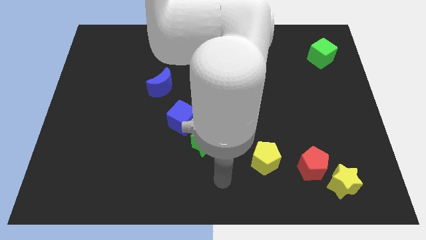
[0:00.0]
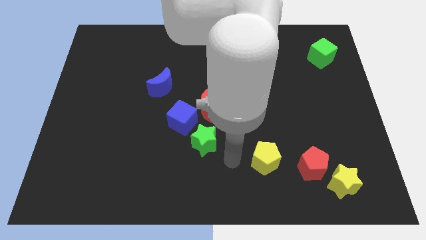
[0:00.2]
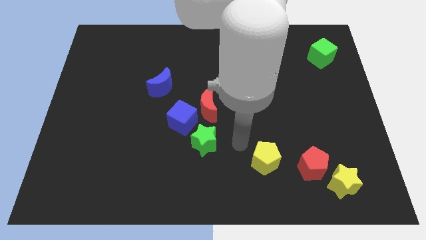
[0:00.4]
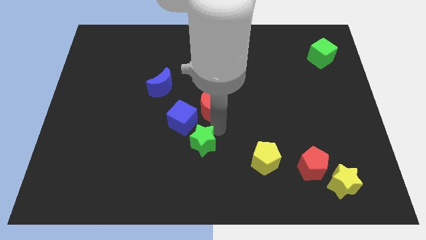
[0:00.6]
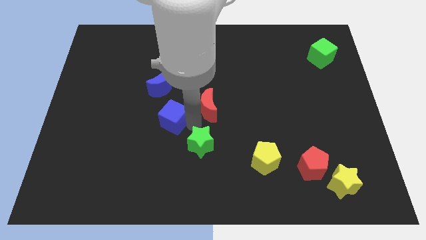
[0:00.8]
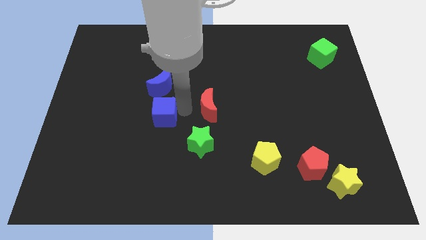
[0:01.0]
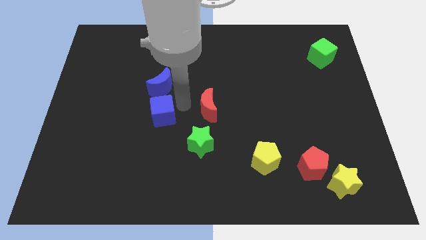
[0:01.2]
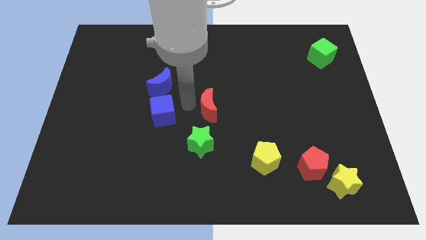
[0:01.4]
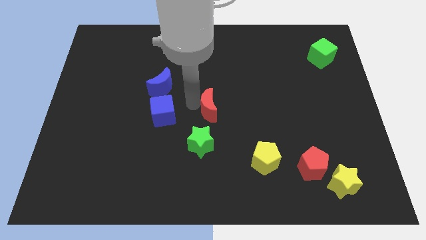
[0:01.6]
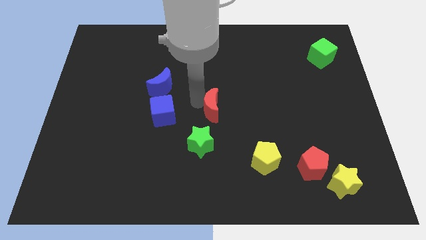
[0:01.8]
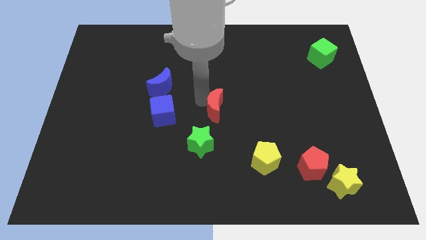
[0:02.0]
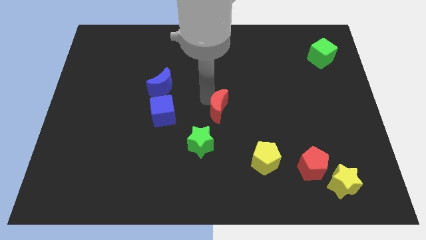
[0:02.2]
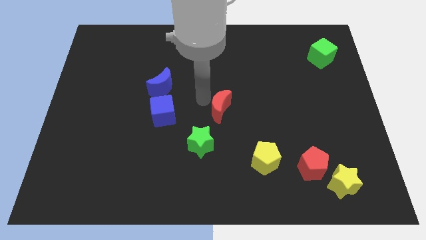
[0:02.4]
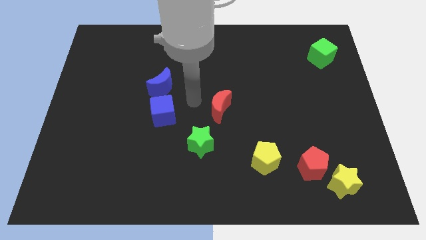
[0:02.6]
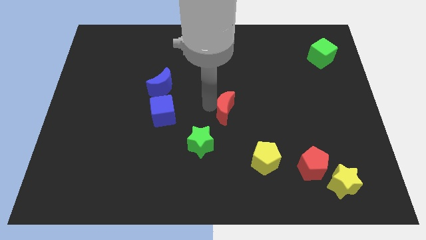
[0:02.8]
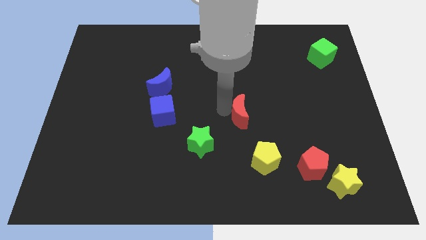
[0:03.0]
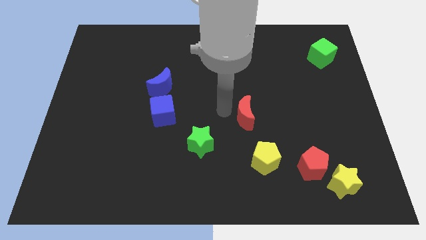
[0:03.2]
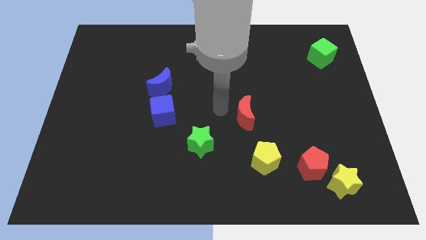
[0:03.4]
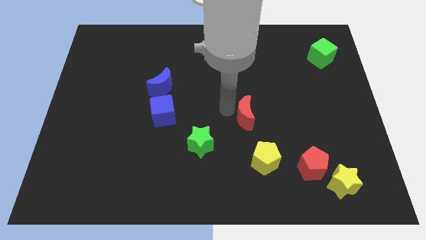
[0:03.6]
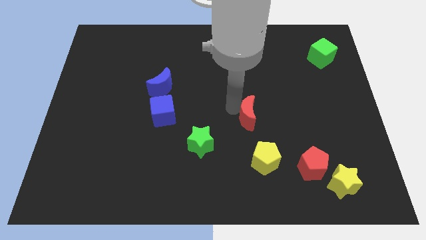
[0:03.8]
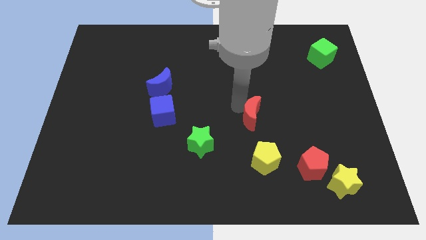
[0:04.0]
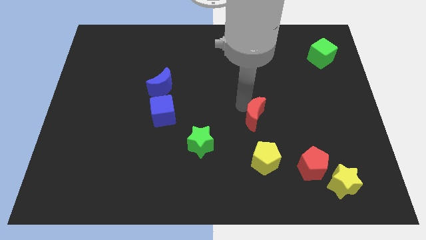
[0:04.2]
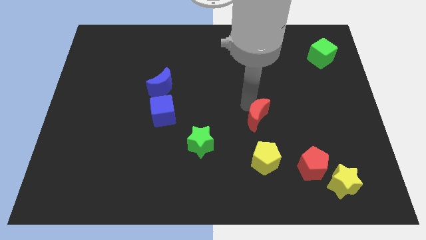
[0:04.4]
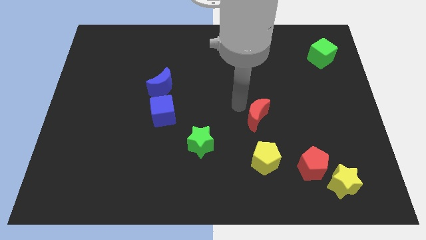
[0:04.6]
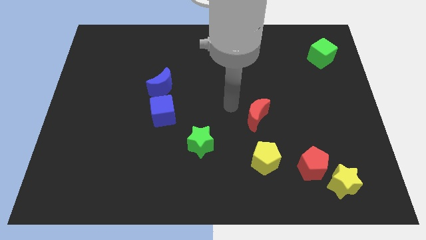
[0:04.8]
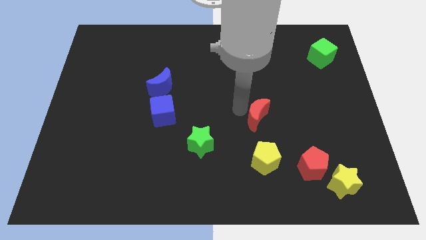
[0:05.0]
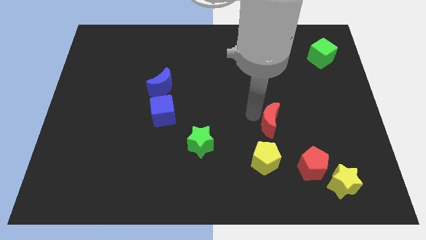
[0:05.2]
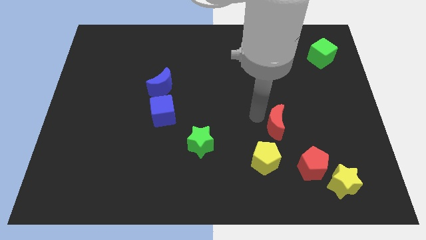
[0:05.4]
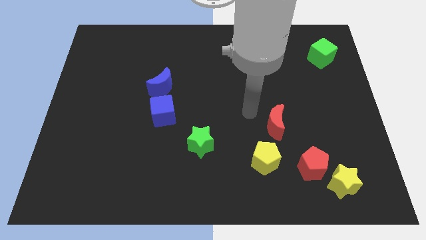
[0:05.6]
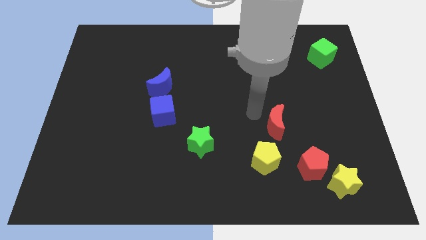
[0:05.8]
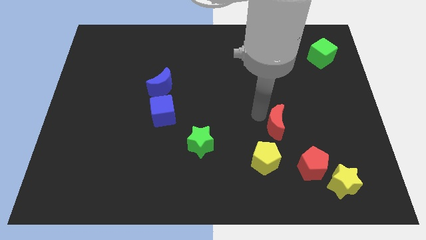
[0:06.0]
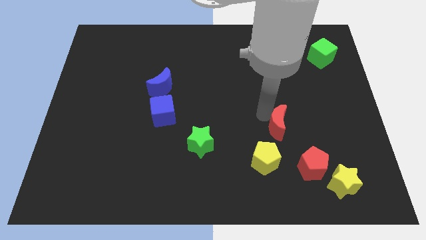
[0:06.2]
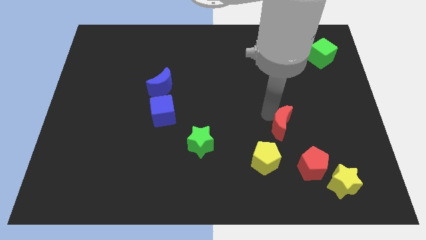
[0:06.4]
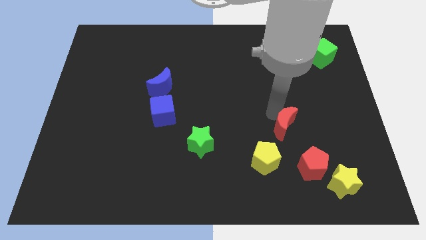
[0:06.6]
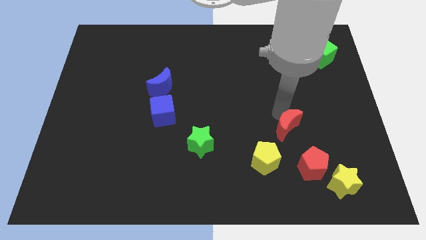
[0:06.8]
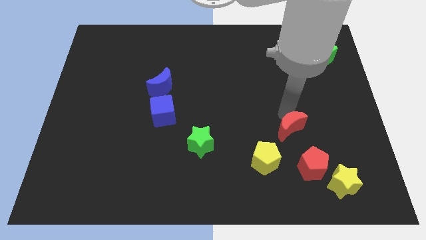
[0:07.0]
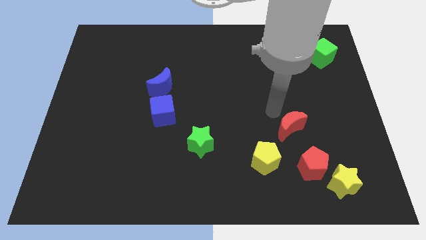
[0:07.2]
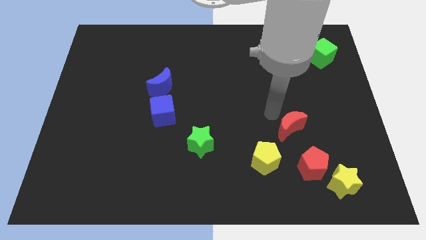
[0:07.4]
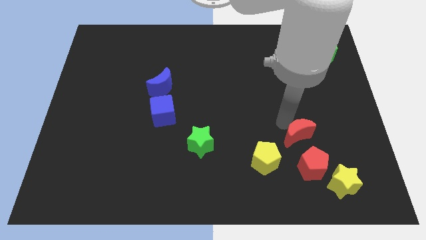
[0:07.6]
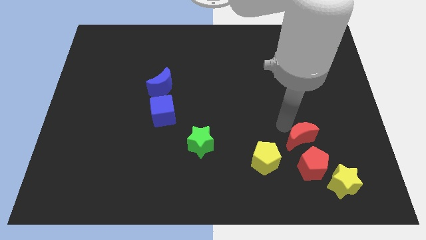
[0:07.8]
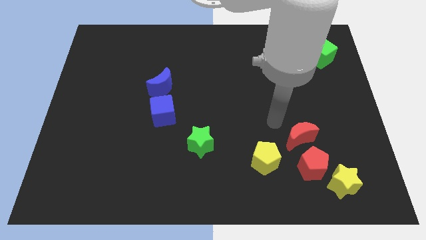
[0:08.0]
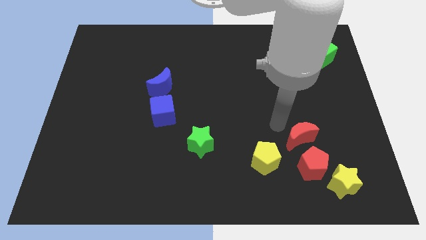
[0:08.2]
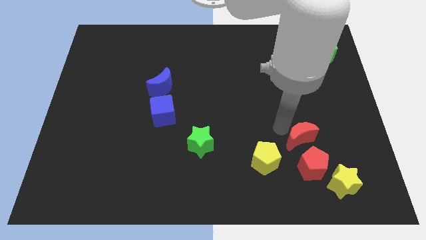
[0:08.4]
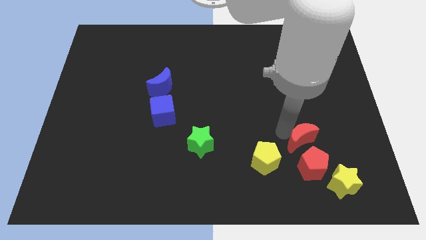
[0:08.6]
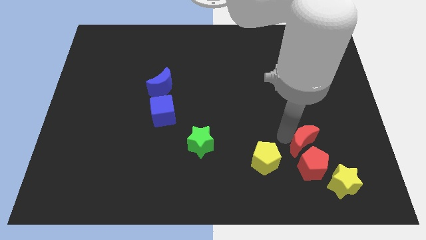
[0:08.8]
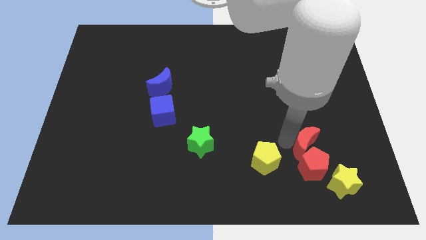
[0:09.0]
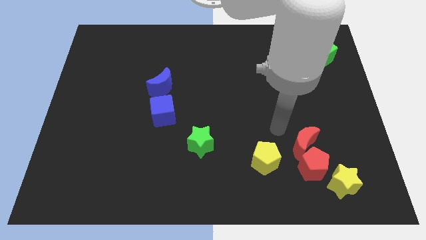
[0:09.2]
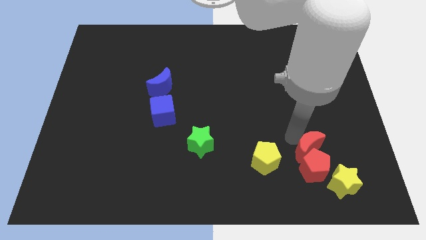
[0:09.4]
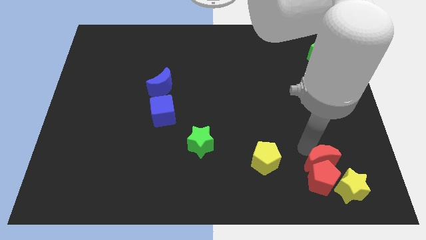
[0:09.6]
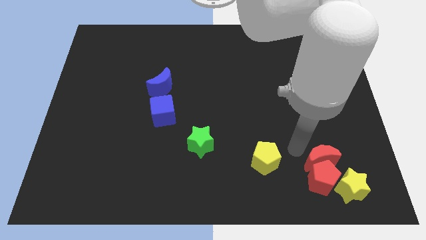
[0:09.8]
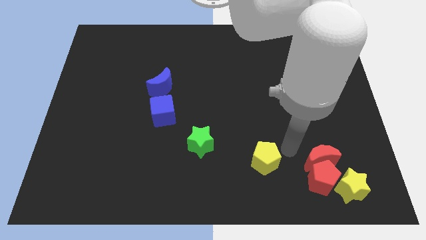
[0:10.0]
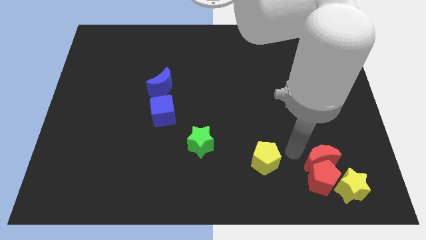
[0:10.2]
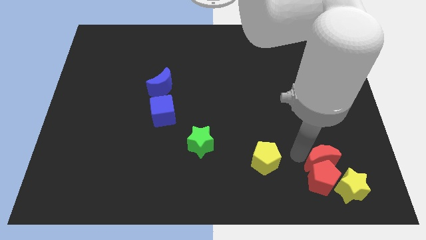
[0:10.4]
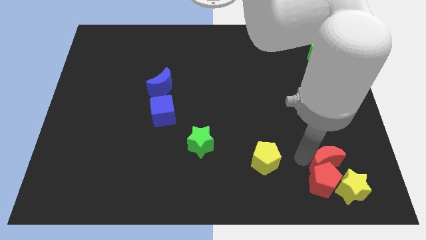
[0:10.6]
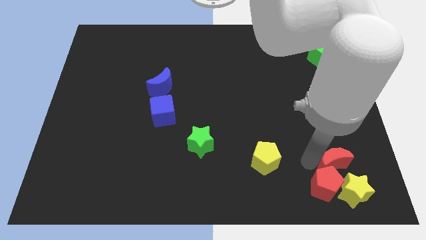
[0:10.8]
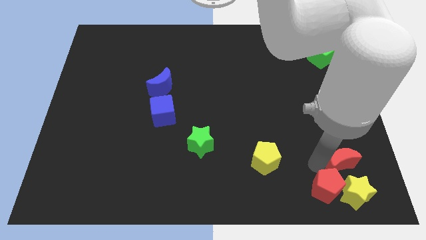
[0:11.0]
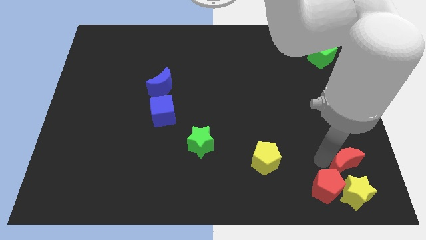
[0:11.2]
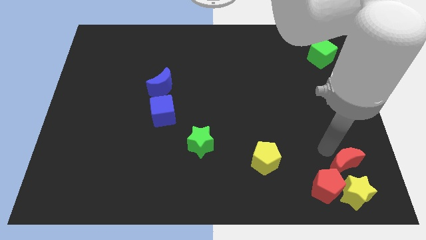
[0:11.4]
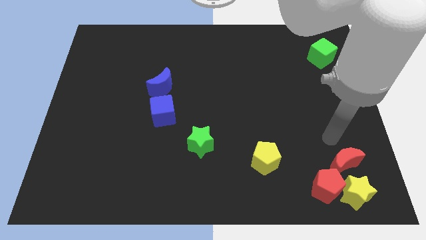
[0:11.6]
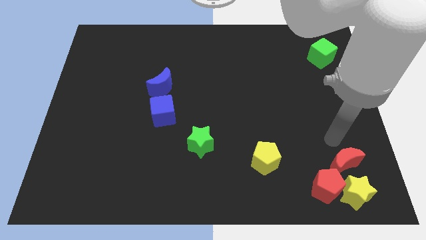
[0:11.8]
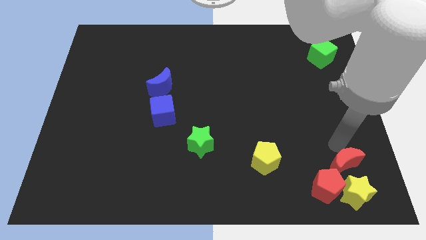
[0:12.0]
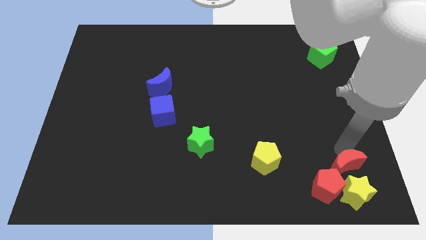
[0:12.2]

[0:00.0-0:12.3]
put the red moon towards the yellow star

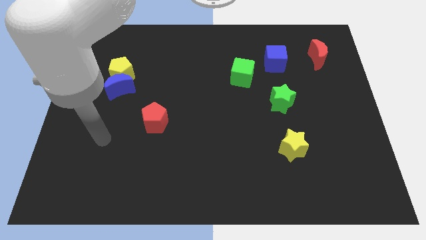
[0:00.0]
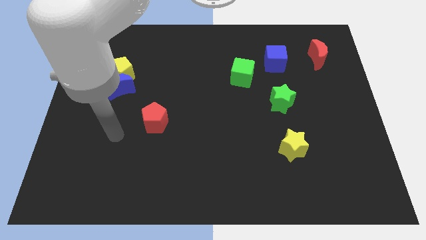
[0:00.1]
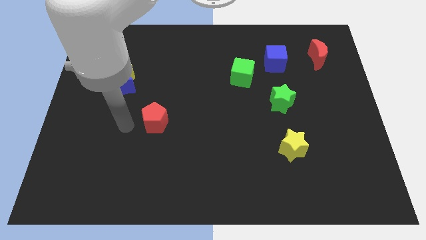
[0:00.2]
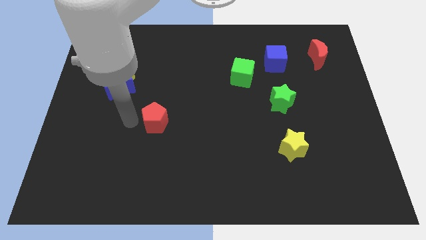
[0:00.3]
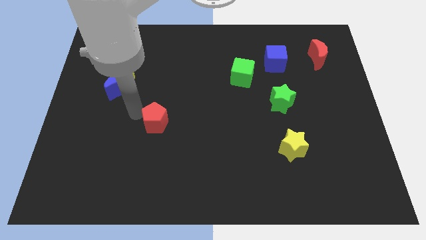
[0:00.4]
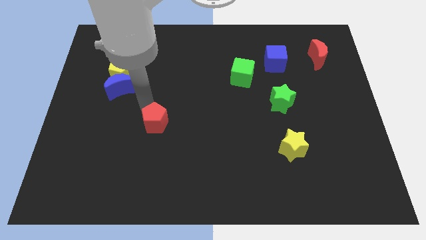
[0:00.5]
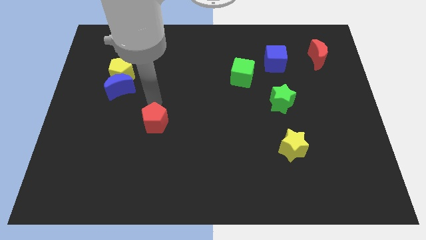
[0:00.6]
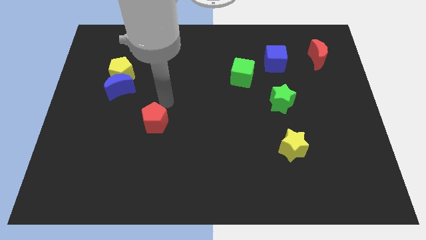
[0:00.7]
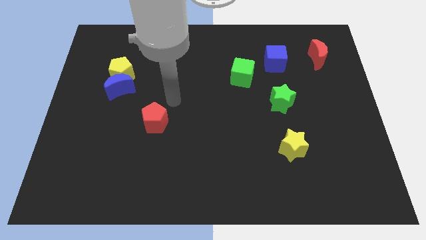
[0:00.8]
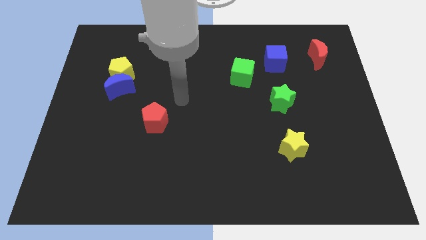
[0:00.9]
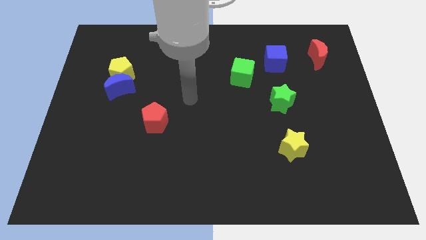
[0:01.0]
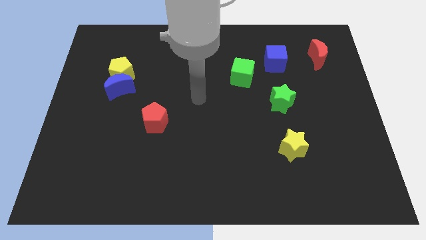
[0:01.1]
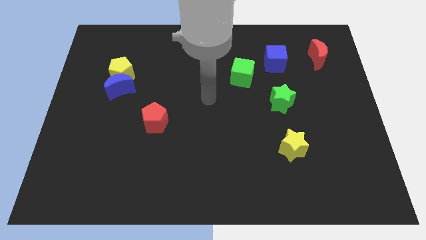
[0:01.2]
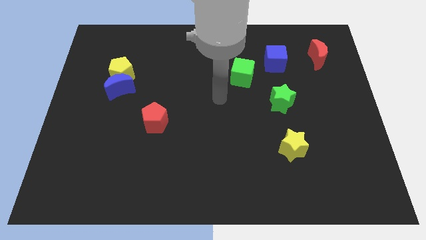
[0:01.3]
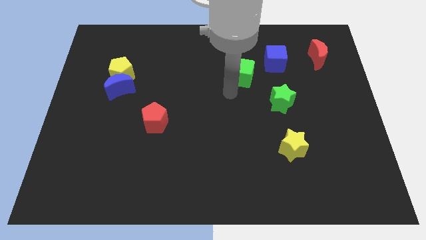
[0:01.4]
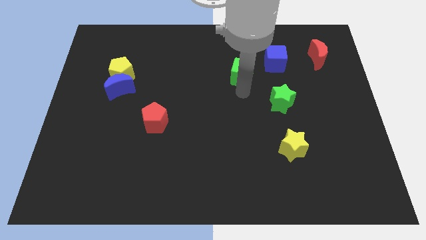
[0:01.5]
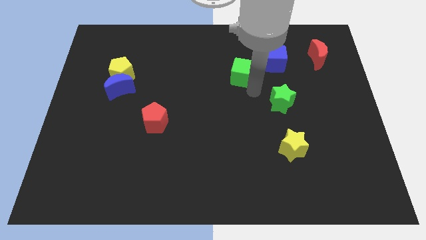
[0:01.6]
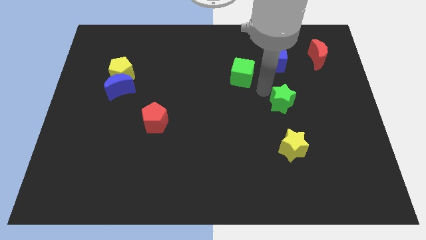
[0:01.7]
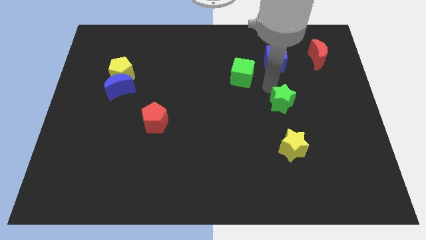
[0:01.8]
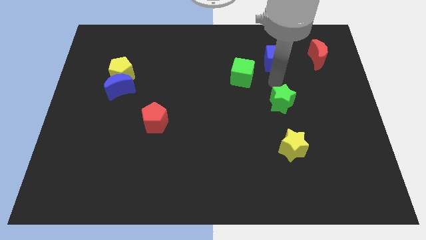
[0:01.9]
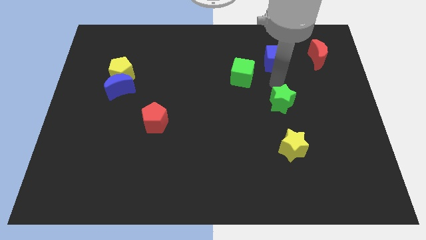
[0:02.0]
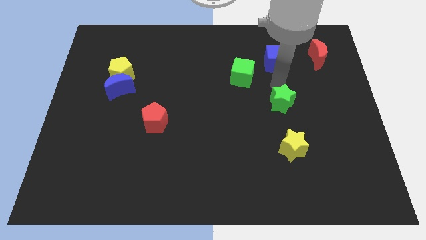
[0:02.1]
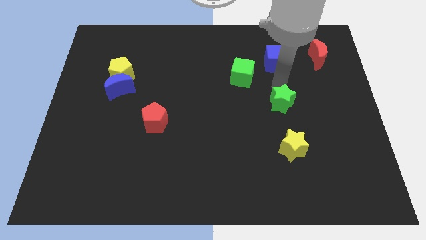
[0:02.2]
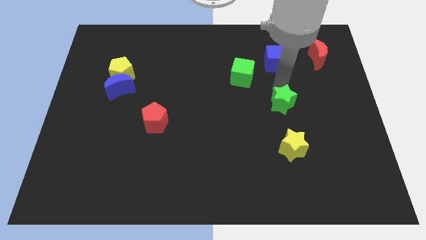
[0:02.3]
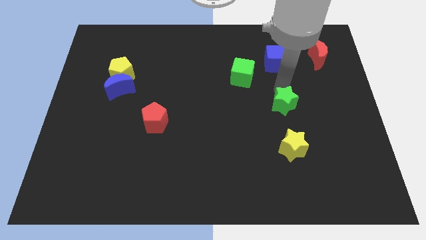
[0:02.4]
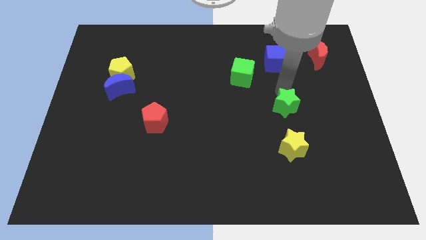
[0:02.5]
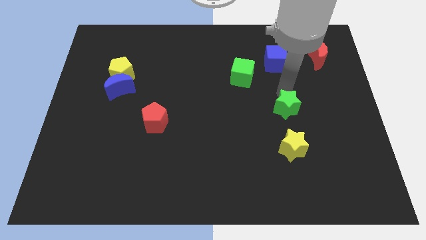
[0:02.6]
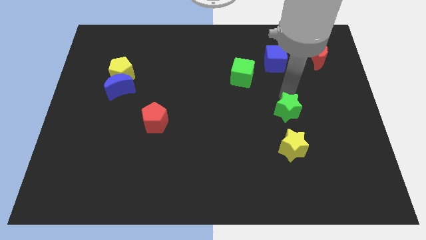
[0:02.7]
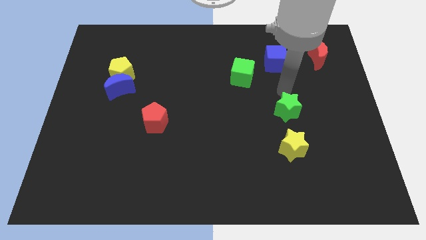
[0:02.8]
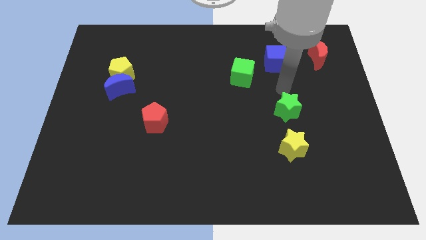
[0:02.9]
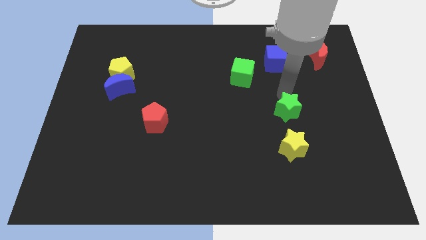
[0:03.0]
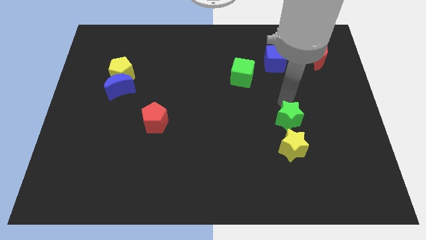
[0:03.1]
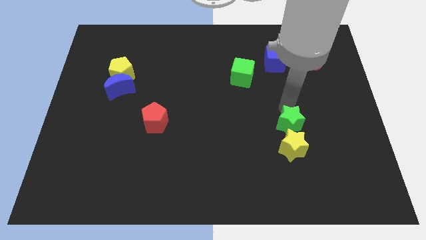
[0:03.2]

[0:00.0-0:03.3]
slide the green star close to the yellow star
